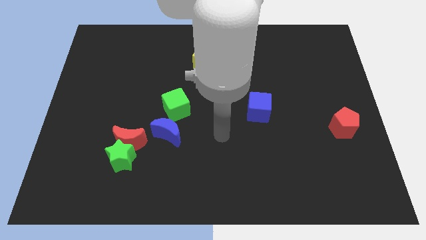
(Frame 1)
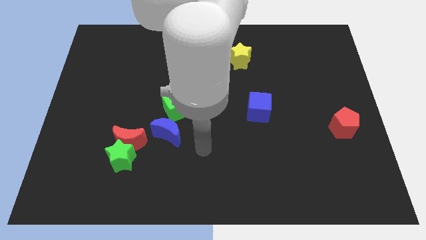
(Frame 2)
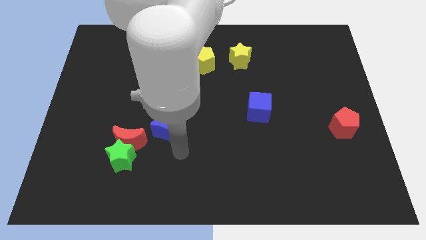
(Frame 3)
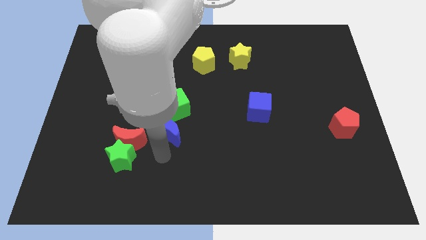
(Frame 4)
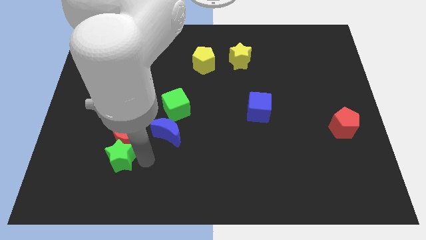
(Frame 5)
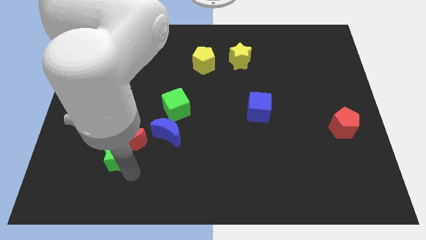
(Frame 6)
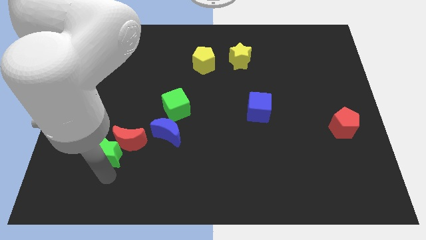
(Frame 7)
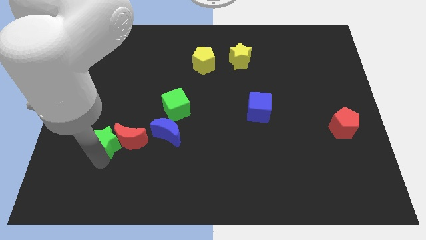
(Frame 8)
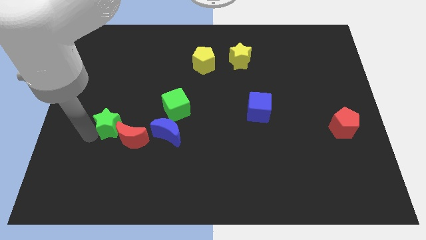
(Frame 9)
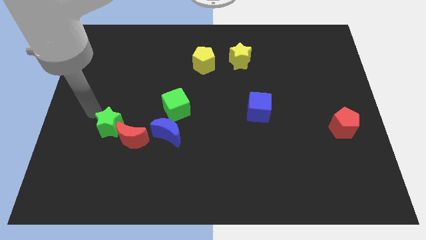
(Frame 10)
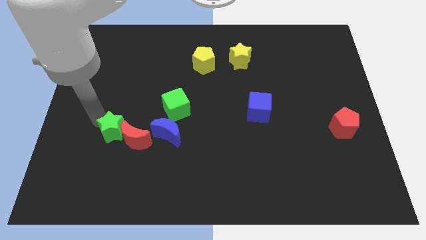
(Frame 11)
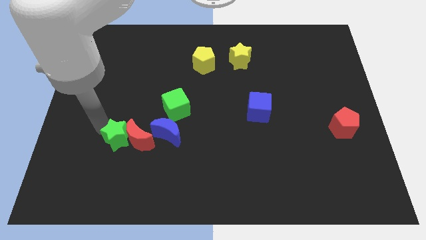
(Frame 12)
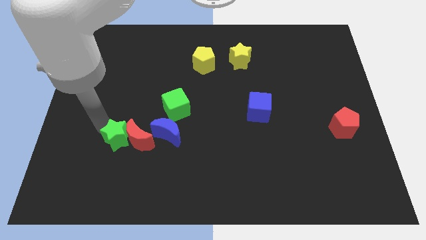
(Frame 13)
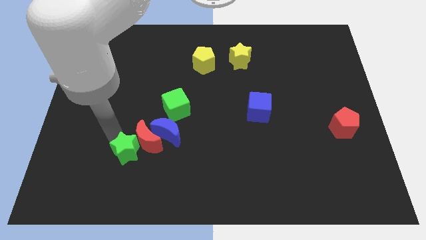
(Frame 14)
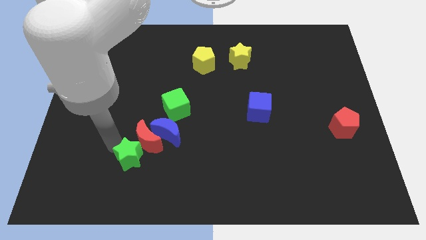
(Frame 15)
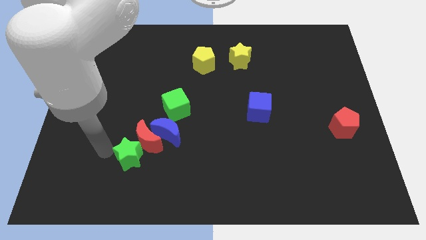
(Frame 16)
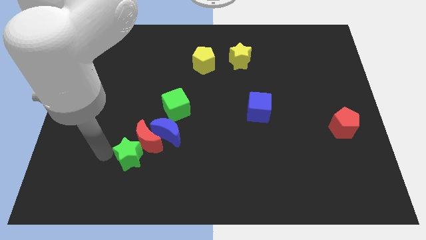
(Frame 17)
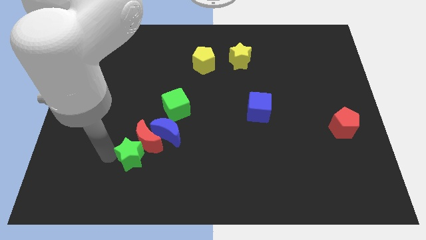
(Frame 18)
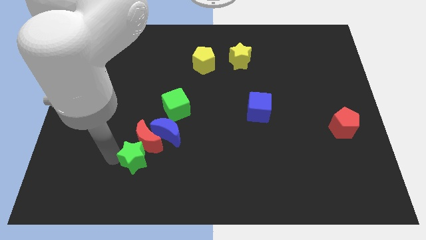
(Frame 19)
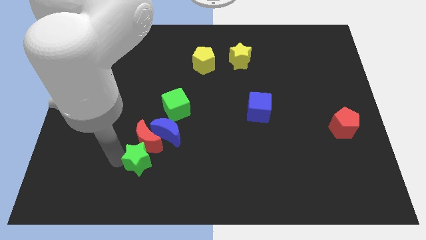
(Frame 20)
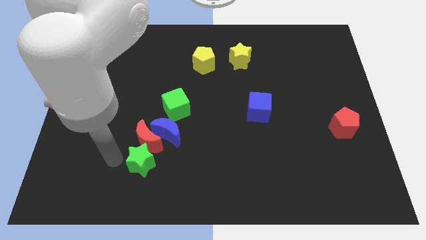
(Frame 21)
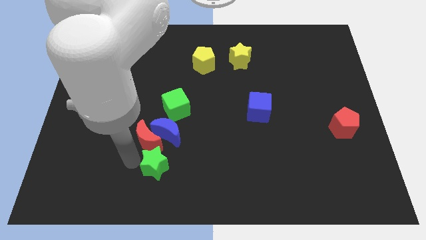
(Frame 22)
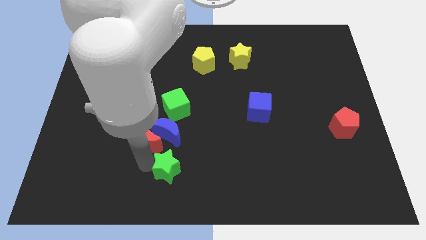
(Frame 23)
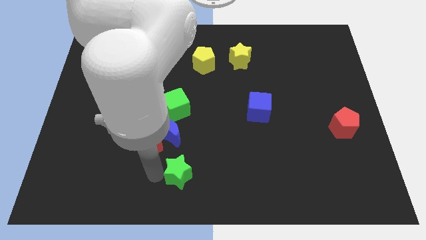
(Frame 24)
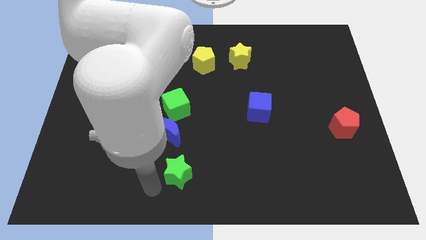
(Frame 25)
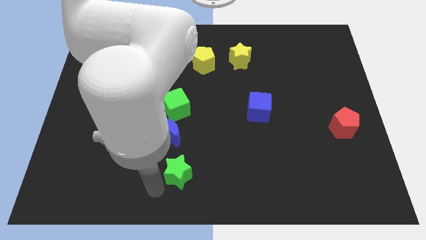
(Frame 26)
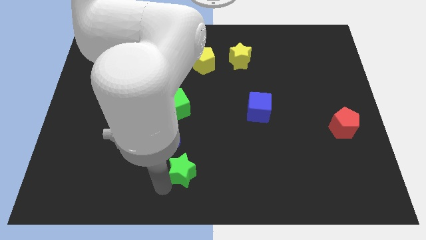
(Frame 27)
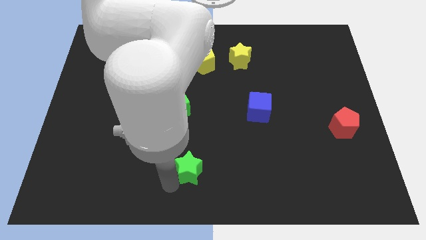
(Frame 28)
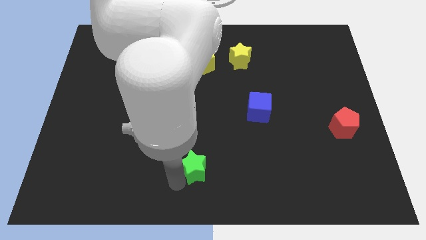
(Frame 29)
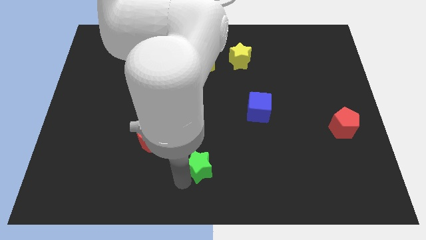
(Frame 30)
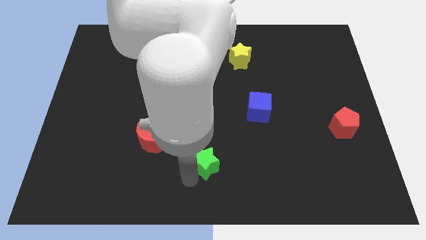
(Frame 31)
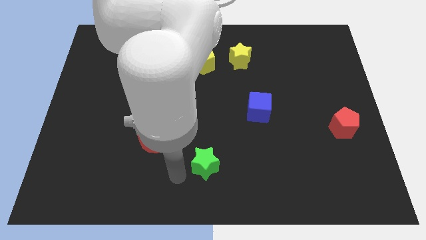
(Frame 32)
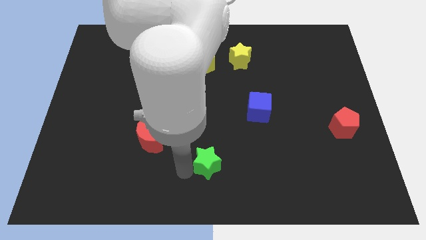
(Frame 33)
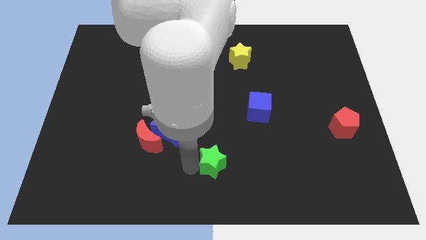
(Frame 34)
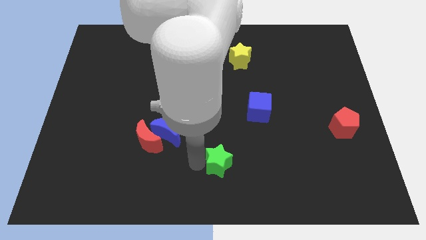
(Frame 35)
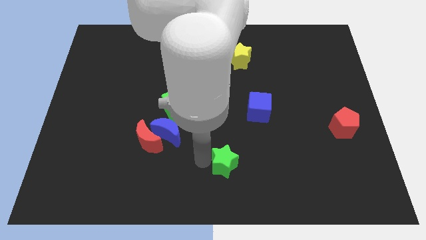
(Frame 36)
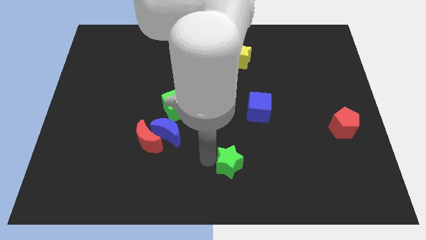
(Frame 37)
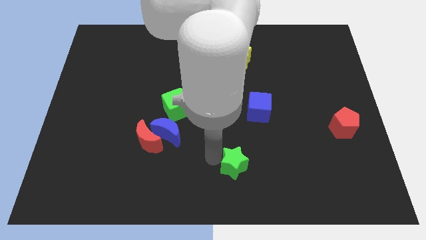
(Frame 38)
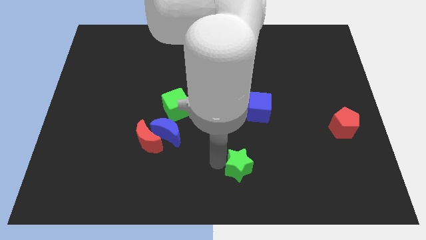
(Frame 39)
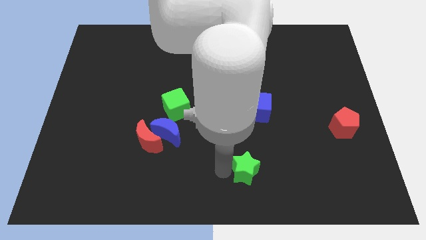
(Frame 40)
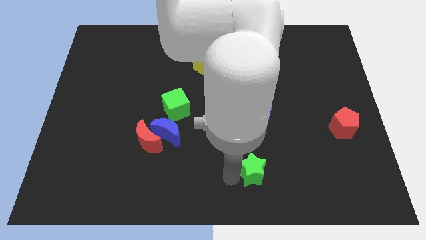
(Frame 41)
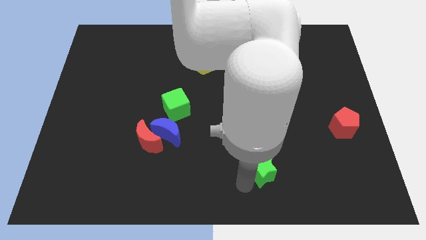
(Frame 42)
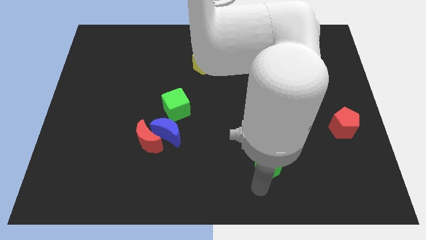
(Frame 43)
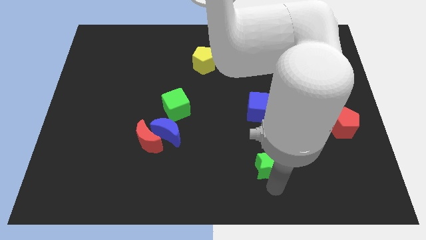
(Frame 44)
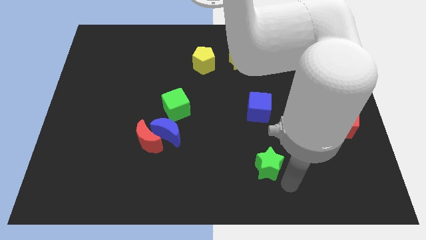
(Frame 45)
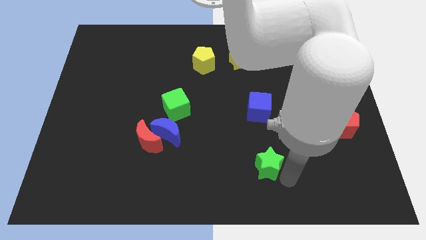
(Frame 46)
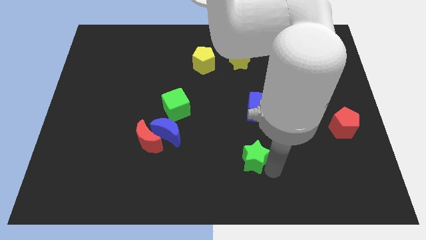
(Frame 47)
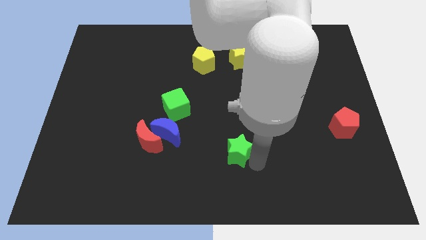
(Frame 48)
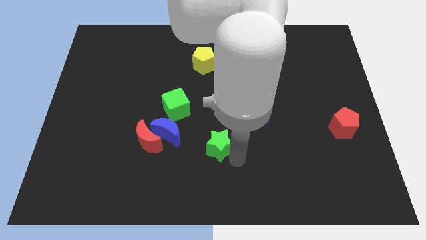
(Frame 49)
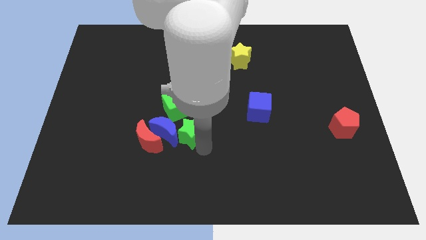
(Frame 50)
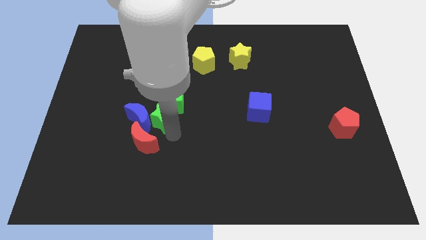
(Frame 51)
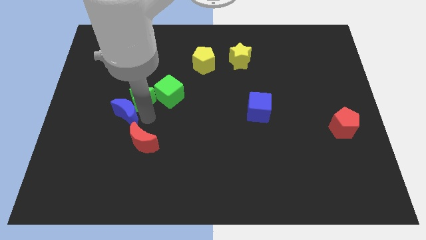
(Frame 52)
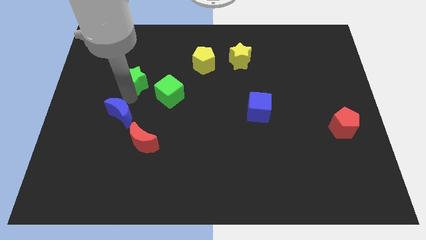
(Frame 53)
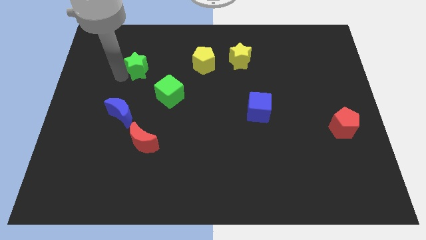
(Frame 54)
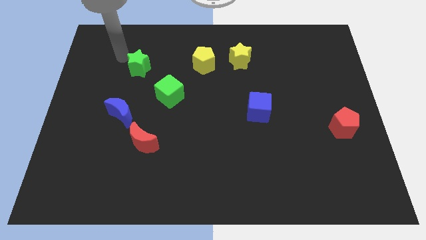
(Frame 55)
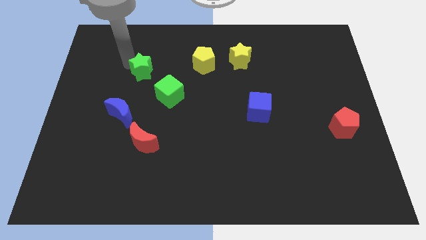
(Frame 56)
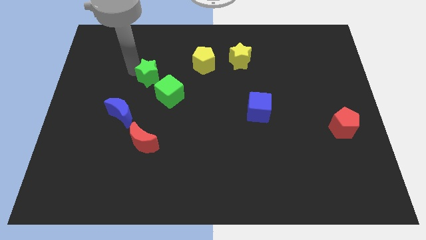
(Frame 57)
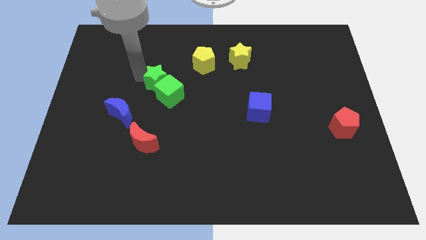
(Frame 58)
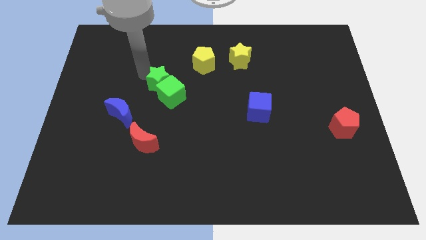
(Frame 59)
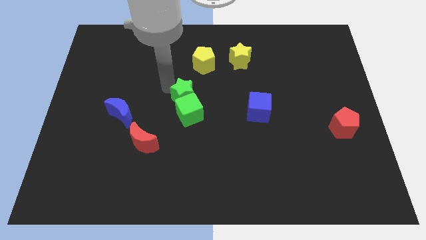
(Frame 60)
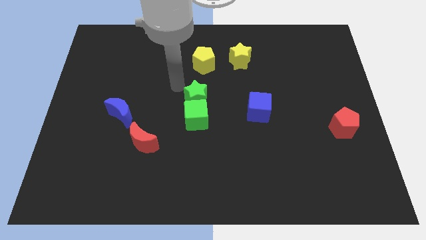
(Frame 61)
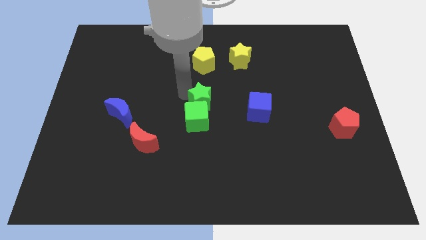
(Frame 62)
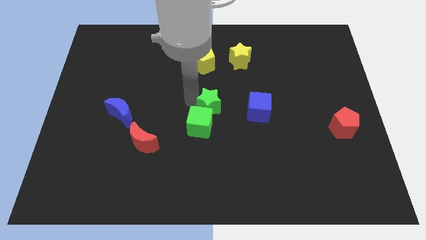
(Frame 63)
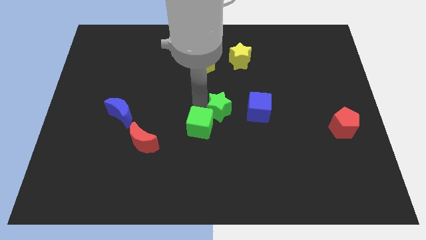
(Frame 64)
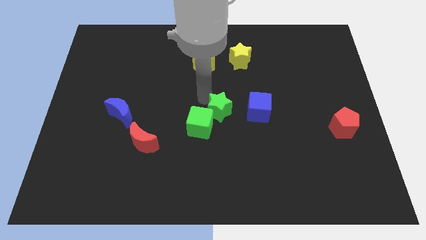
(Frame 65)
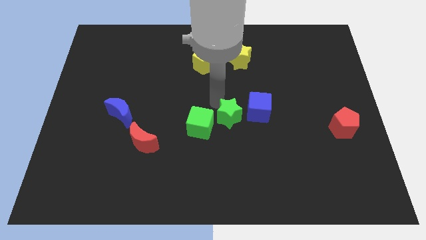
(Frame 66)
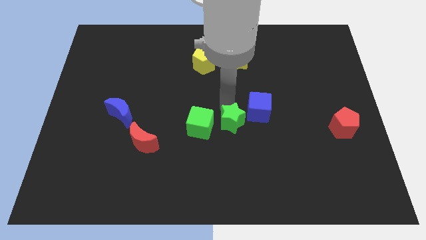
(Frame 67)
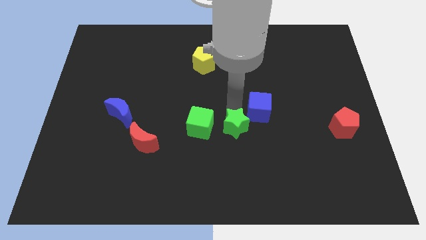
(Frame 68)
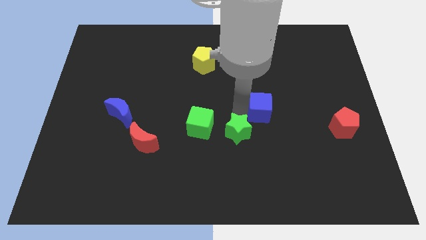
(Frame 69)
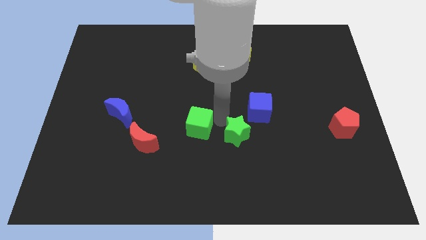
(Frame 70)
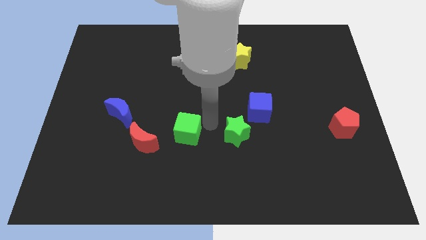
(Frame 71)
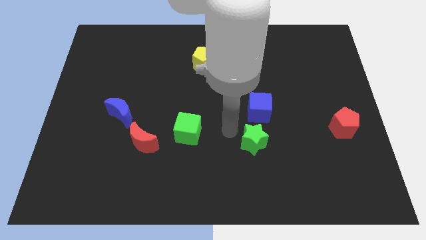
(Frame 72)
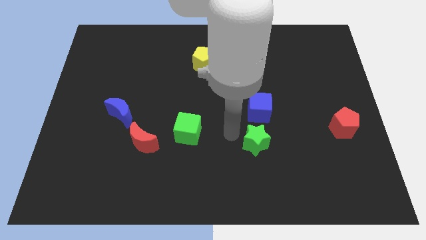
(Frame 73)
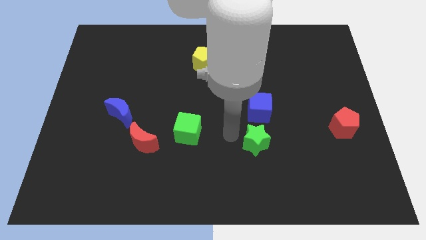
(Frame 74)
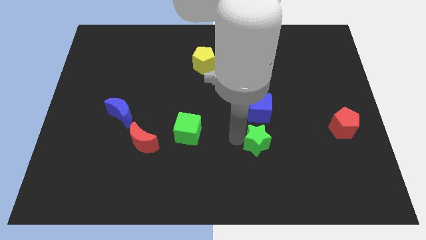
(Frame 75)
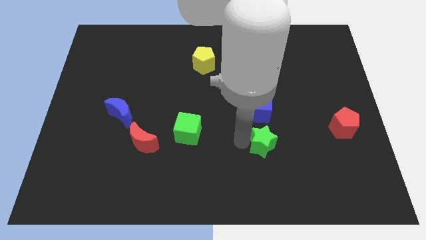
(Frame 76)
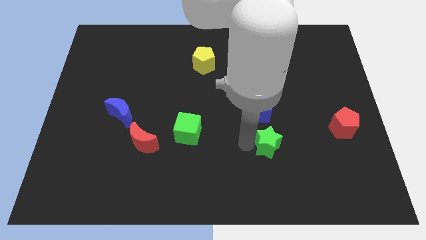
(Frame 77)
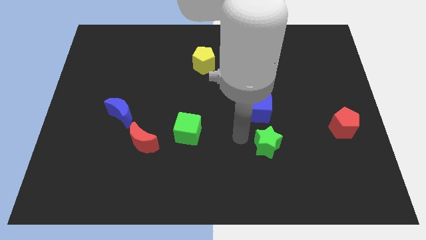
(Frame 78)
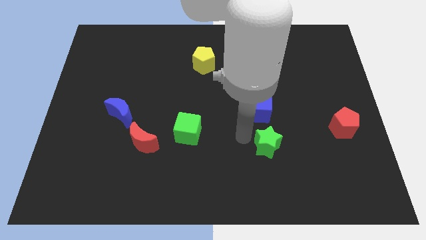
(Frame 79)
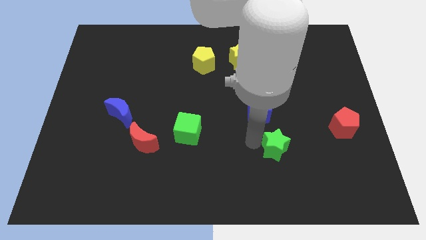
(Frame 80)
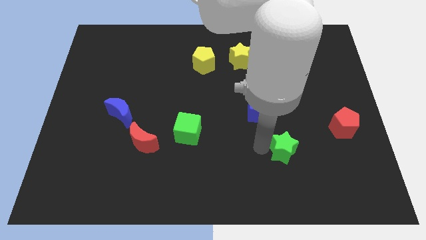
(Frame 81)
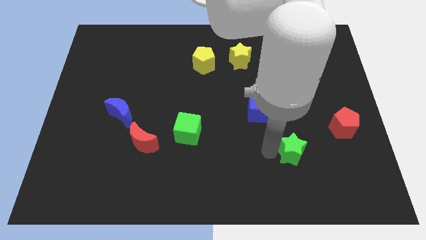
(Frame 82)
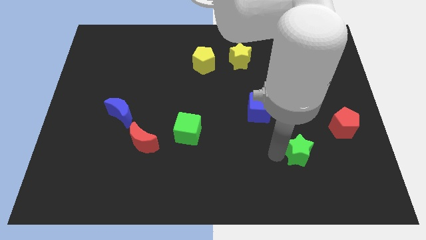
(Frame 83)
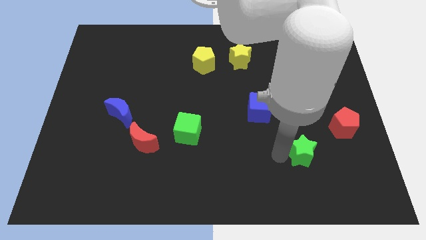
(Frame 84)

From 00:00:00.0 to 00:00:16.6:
move the green star to the bottom left side of the red pentagon
